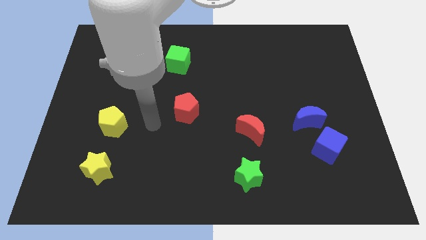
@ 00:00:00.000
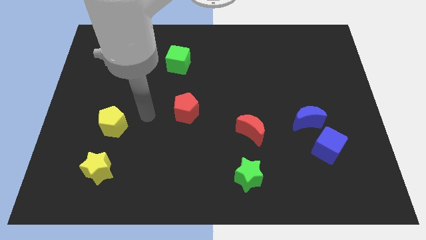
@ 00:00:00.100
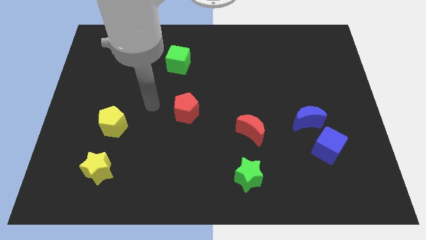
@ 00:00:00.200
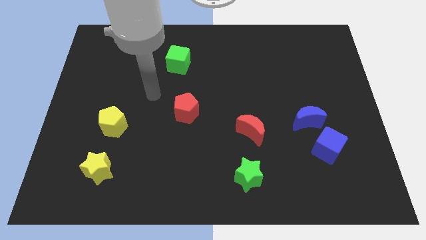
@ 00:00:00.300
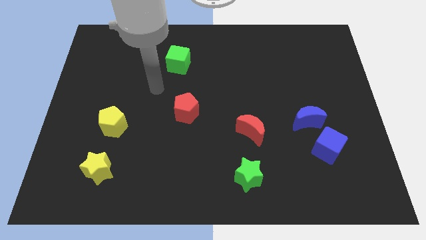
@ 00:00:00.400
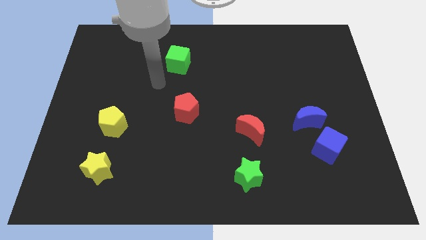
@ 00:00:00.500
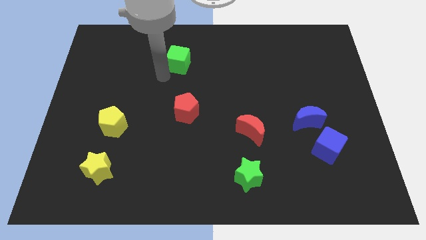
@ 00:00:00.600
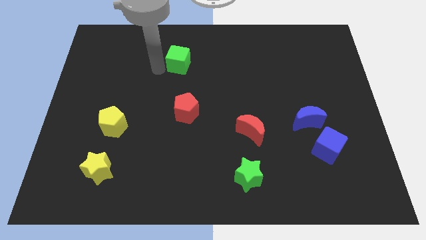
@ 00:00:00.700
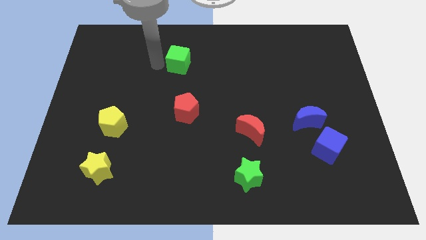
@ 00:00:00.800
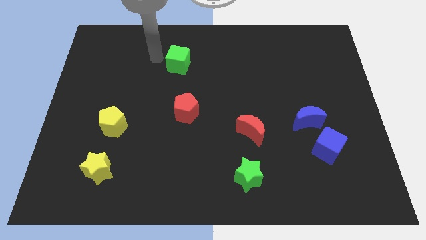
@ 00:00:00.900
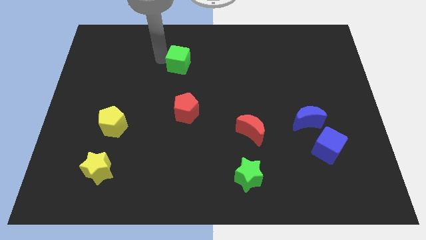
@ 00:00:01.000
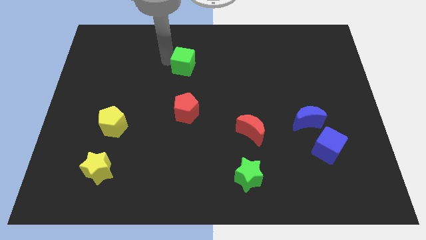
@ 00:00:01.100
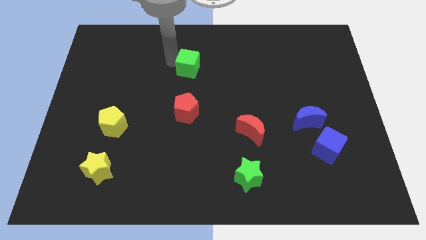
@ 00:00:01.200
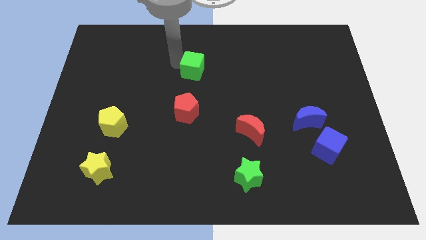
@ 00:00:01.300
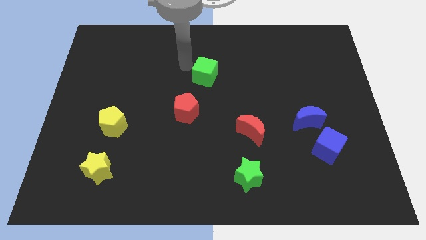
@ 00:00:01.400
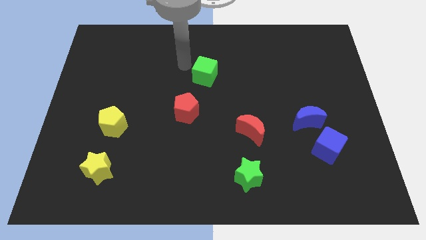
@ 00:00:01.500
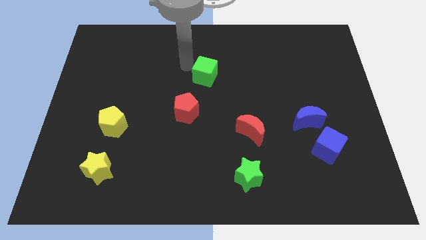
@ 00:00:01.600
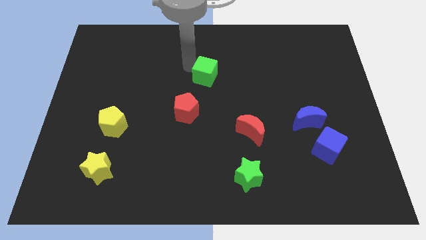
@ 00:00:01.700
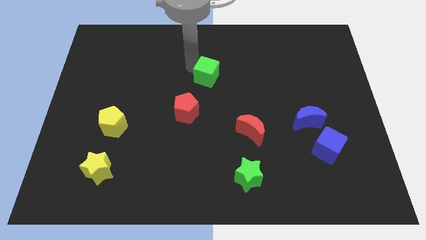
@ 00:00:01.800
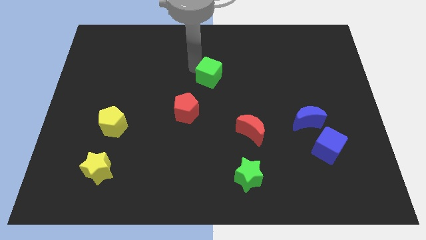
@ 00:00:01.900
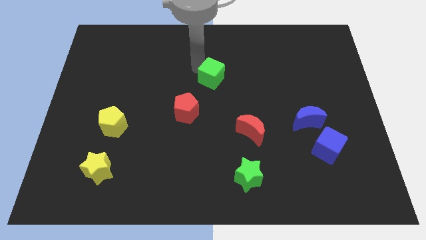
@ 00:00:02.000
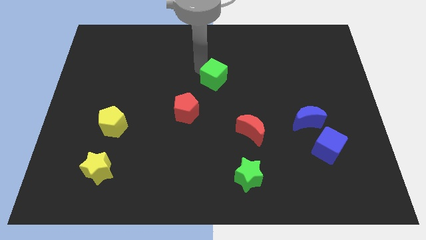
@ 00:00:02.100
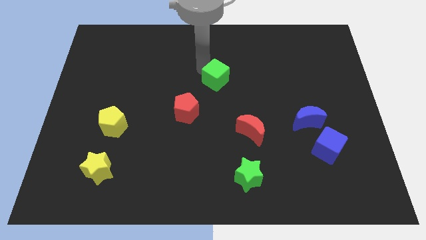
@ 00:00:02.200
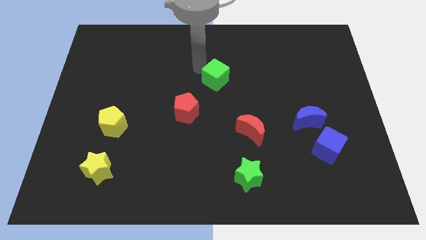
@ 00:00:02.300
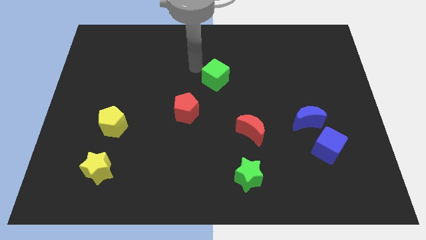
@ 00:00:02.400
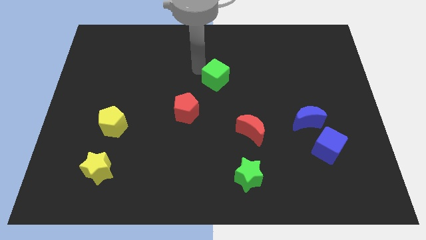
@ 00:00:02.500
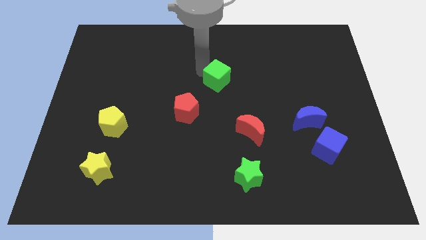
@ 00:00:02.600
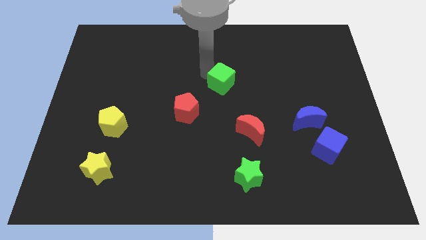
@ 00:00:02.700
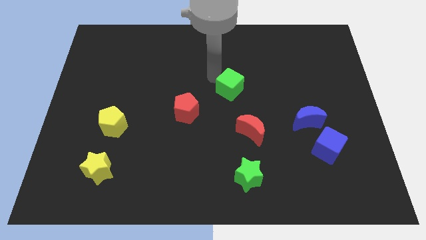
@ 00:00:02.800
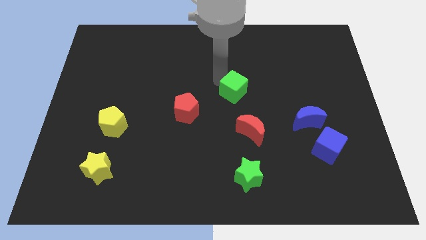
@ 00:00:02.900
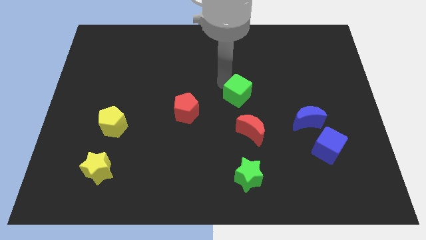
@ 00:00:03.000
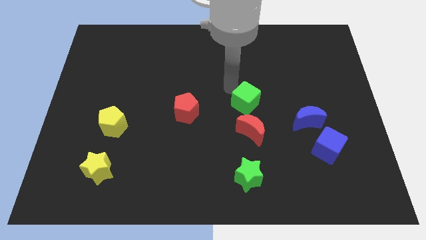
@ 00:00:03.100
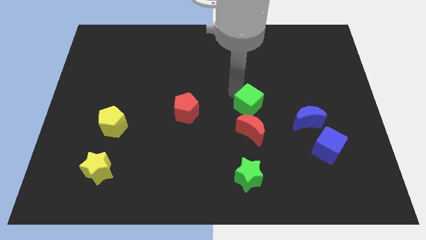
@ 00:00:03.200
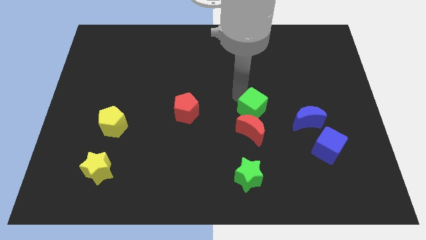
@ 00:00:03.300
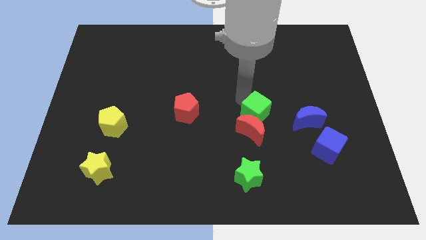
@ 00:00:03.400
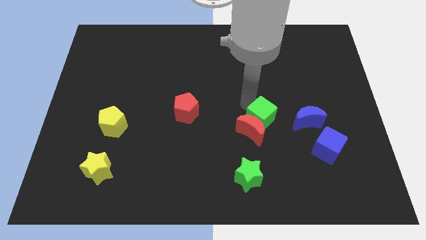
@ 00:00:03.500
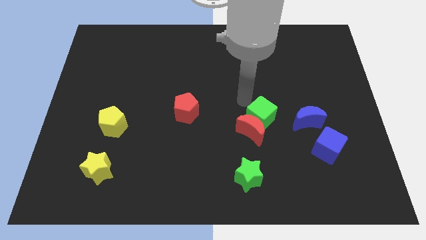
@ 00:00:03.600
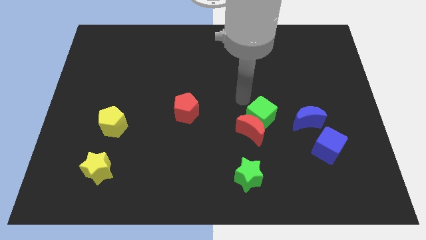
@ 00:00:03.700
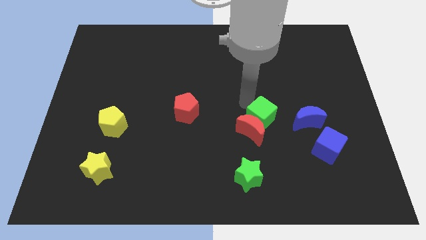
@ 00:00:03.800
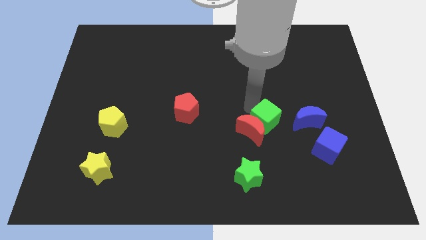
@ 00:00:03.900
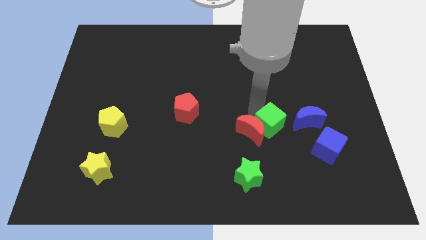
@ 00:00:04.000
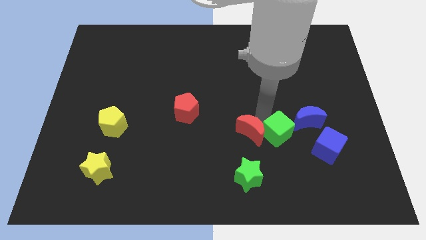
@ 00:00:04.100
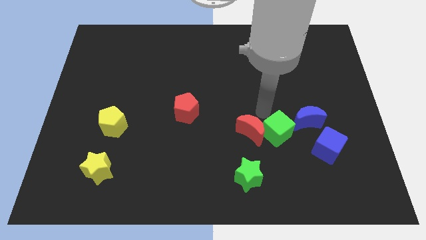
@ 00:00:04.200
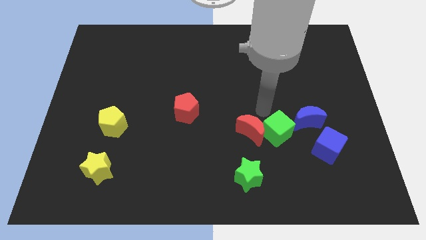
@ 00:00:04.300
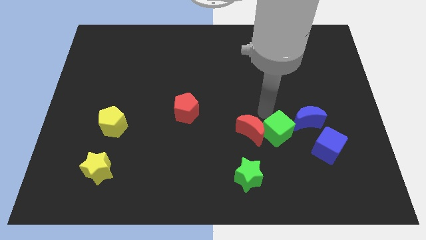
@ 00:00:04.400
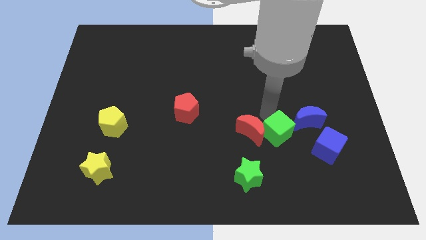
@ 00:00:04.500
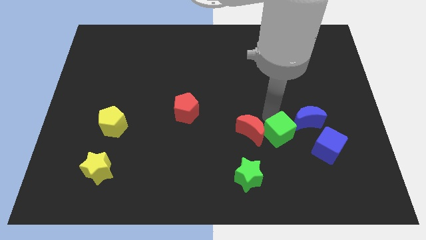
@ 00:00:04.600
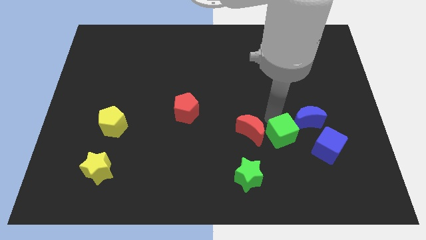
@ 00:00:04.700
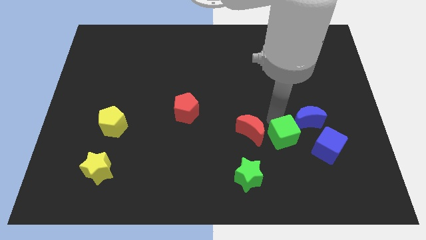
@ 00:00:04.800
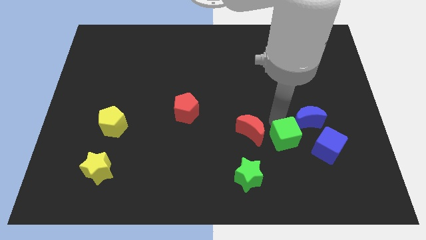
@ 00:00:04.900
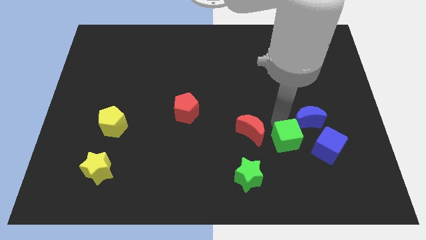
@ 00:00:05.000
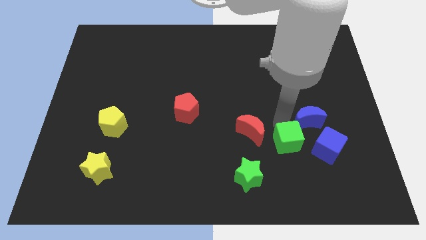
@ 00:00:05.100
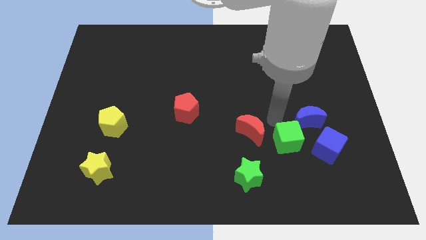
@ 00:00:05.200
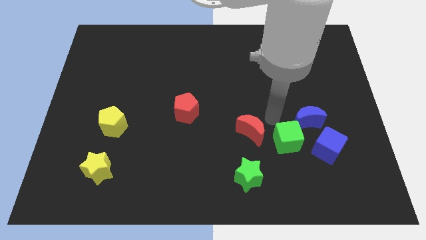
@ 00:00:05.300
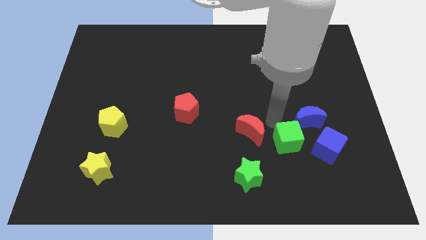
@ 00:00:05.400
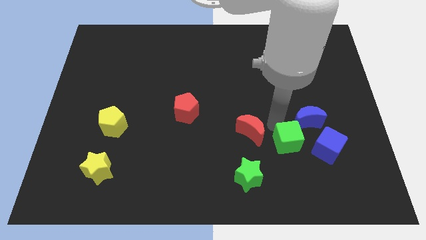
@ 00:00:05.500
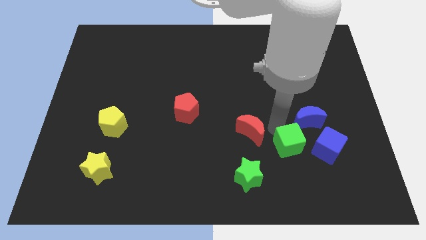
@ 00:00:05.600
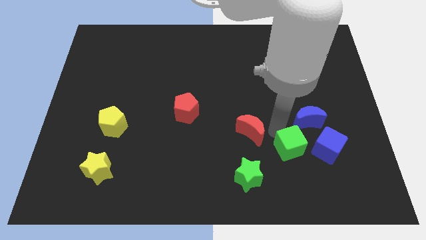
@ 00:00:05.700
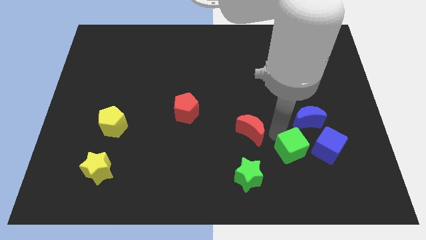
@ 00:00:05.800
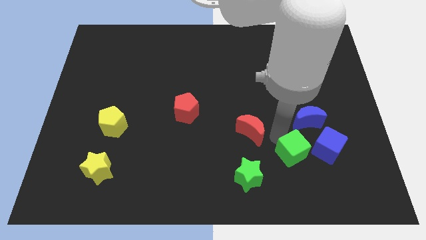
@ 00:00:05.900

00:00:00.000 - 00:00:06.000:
push the green cube diagonally down and to the left of the blue cube

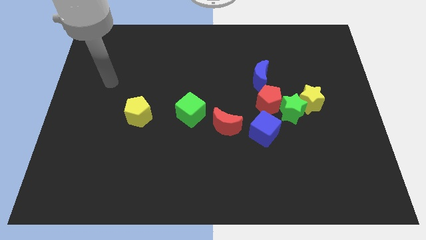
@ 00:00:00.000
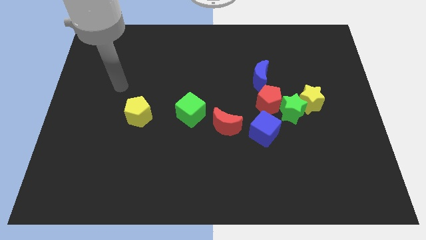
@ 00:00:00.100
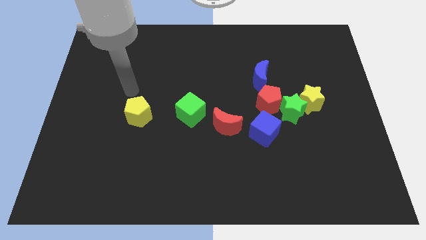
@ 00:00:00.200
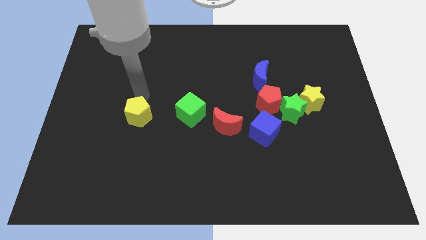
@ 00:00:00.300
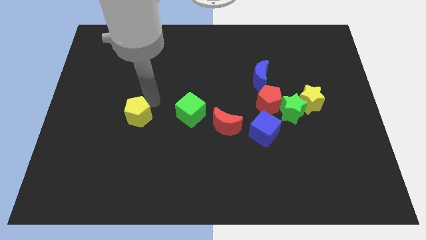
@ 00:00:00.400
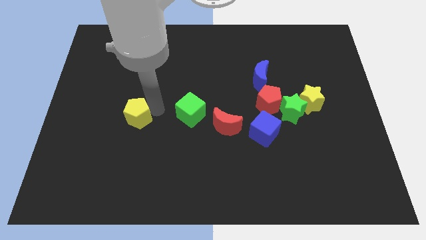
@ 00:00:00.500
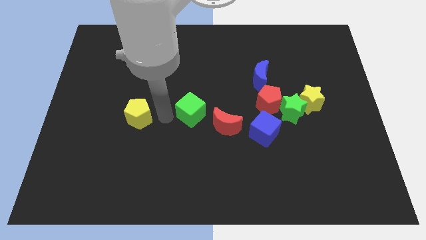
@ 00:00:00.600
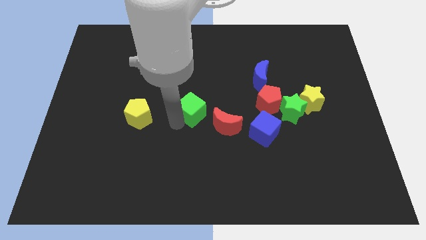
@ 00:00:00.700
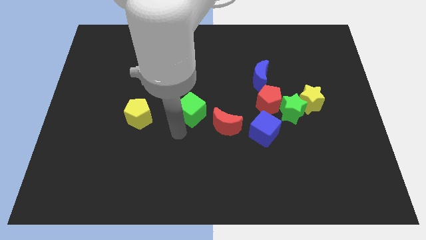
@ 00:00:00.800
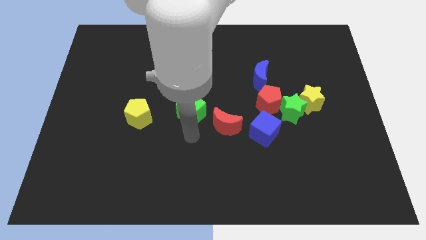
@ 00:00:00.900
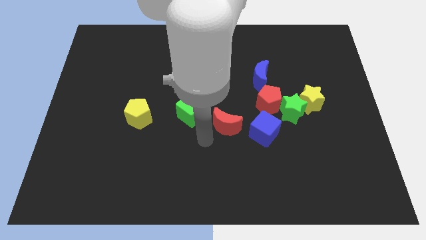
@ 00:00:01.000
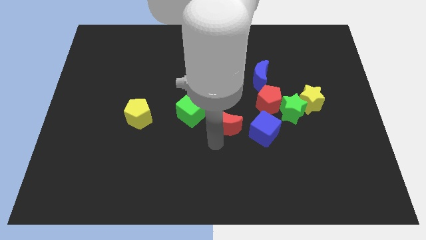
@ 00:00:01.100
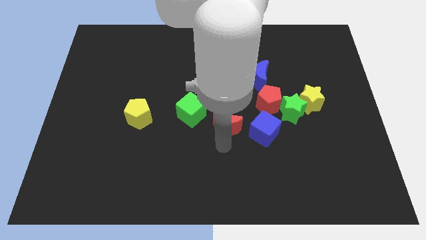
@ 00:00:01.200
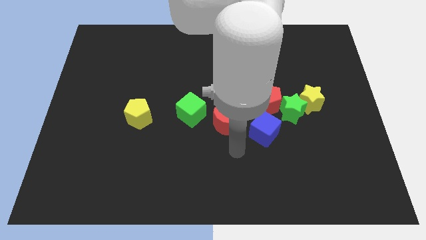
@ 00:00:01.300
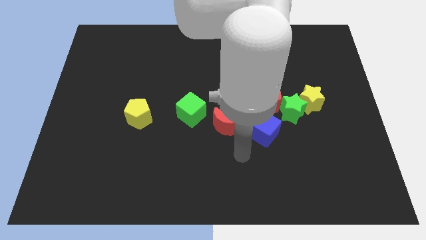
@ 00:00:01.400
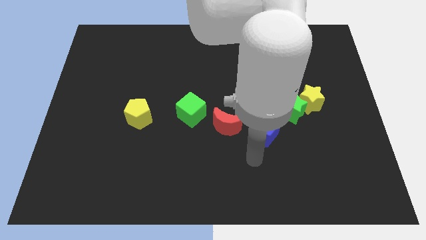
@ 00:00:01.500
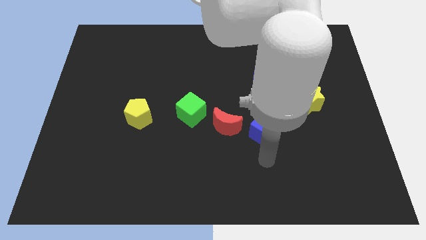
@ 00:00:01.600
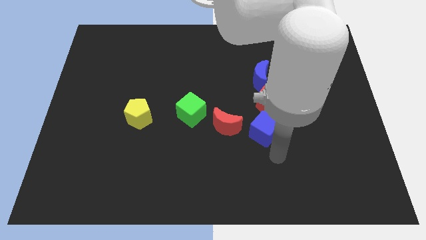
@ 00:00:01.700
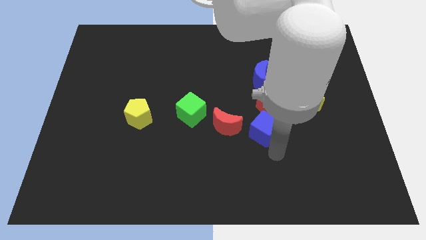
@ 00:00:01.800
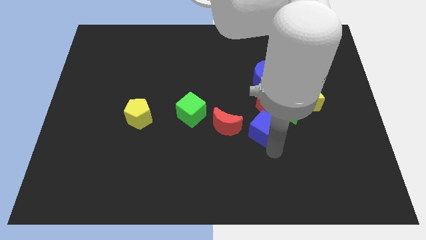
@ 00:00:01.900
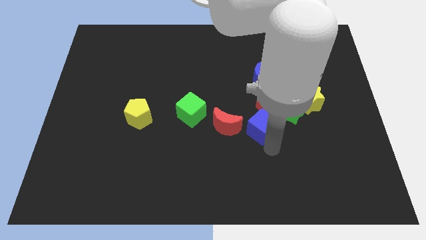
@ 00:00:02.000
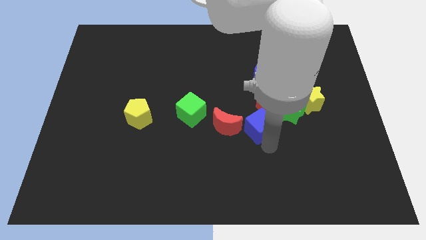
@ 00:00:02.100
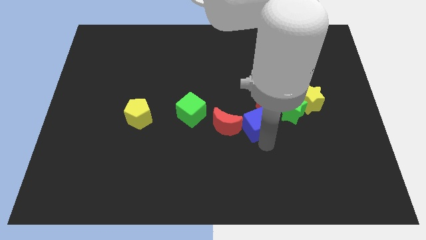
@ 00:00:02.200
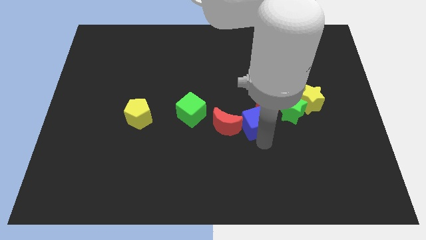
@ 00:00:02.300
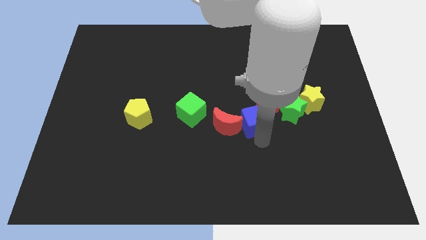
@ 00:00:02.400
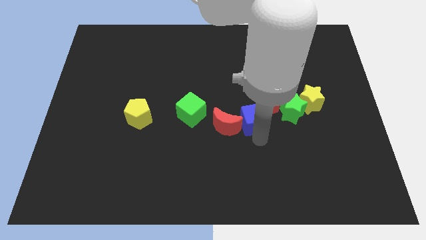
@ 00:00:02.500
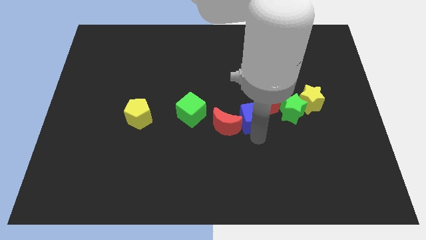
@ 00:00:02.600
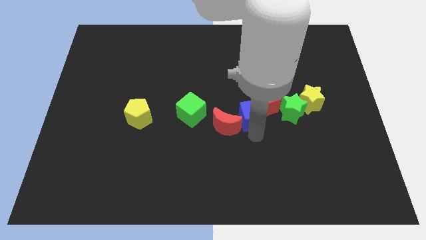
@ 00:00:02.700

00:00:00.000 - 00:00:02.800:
move the blue cube to the left of the yellow star
